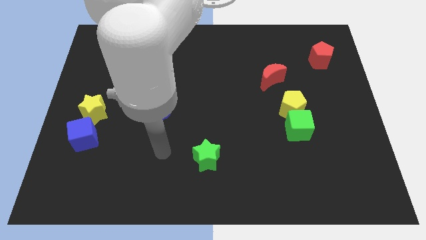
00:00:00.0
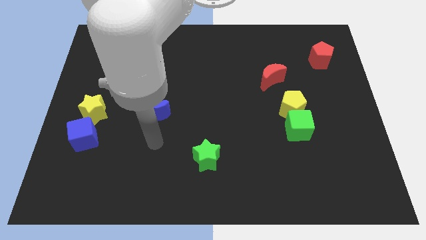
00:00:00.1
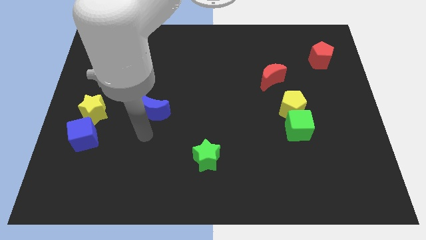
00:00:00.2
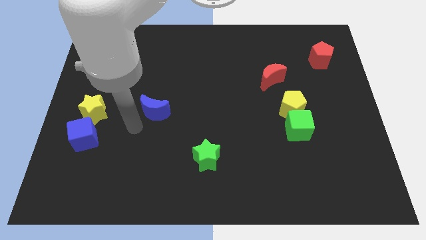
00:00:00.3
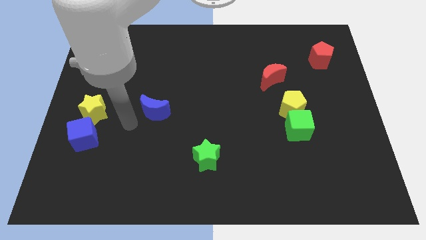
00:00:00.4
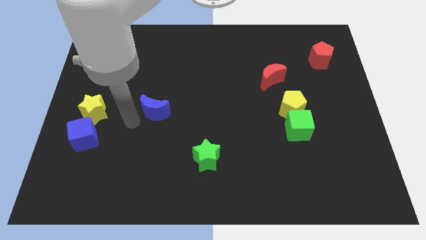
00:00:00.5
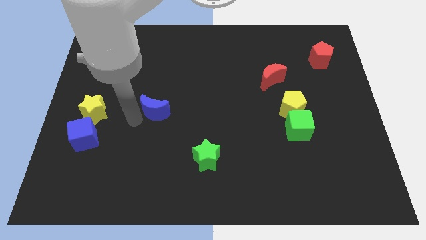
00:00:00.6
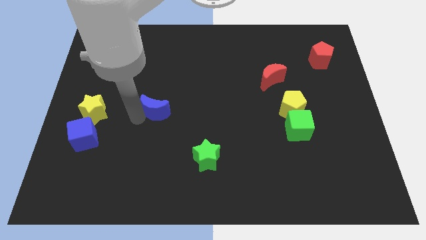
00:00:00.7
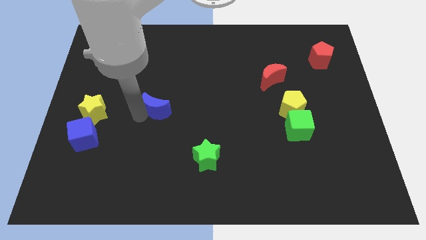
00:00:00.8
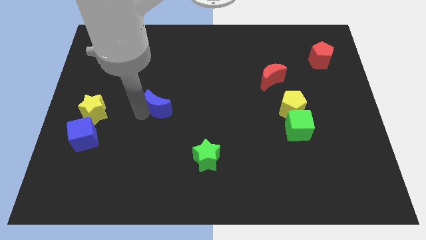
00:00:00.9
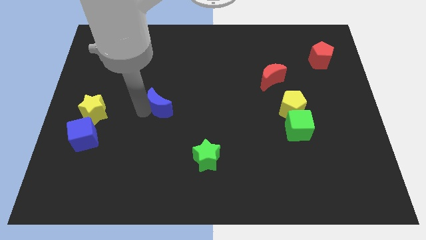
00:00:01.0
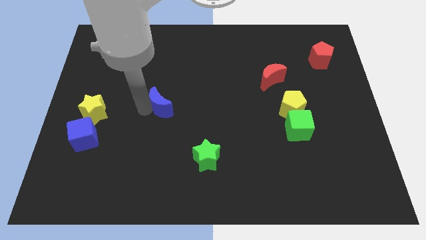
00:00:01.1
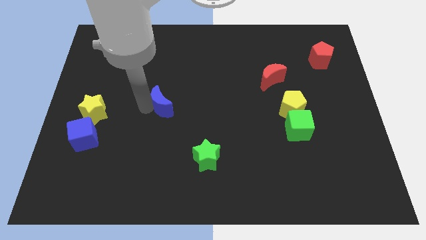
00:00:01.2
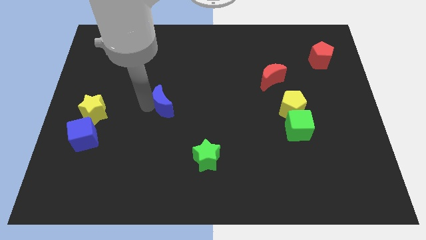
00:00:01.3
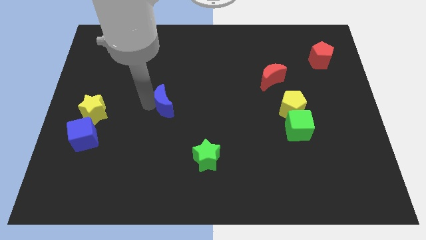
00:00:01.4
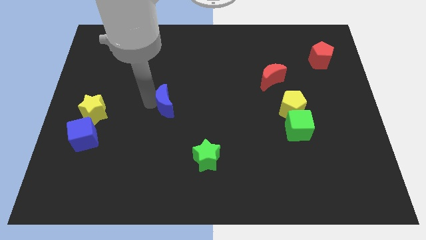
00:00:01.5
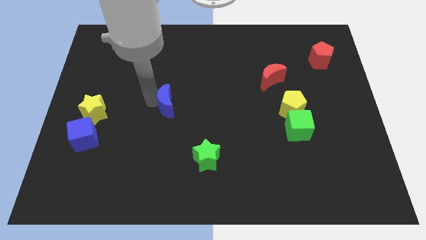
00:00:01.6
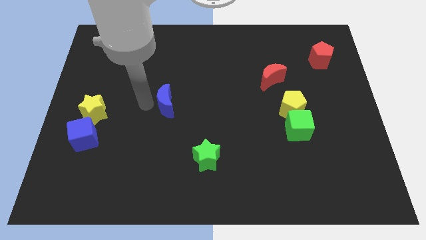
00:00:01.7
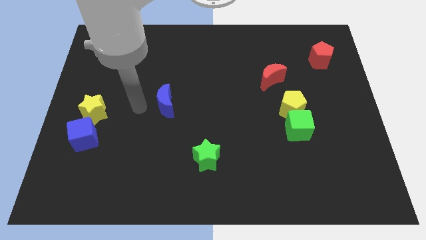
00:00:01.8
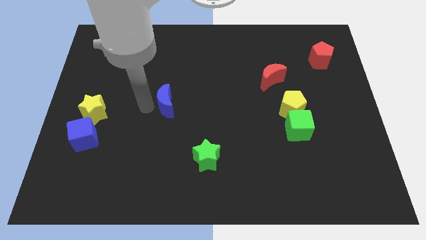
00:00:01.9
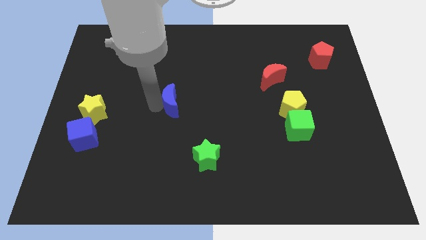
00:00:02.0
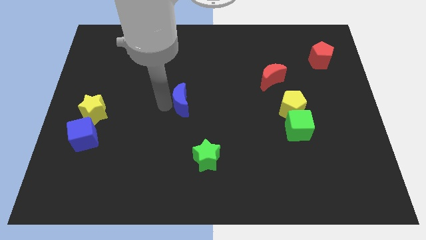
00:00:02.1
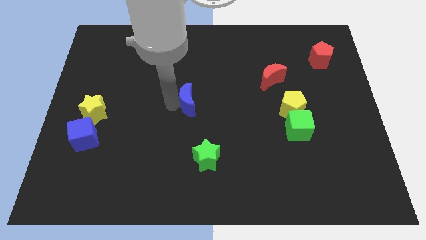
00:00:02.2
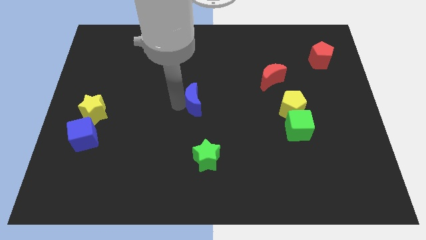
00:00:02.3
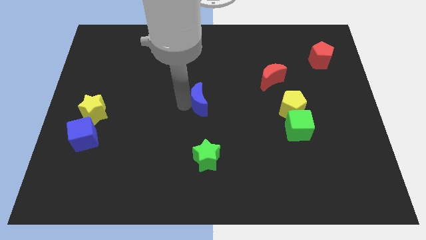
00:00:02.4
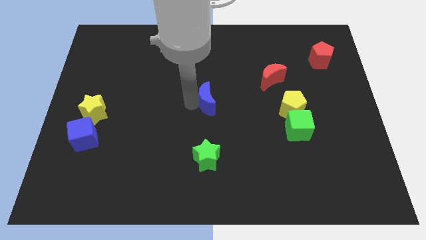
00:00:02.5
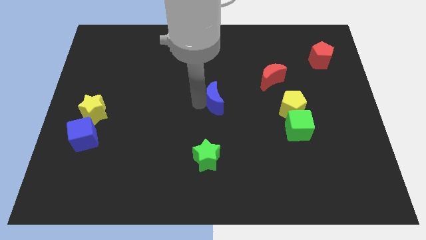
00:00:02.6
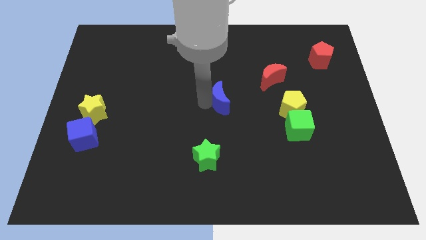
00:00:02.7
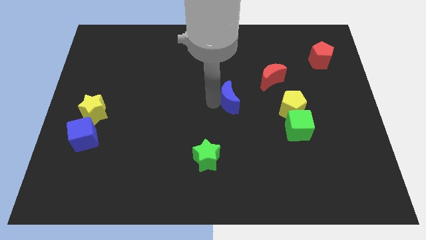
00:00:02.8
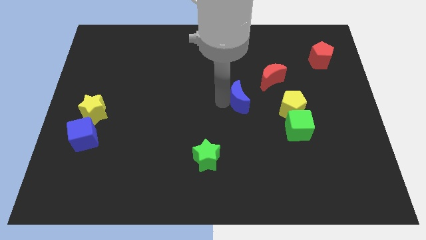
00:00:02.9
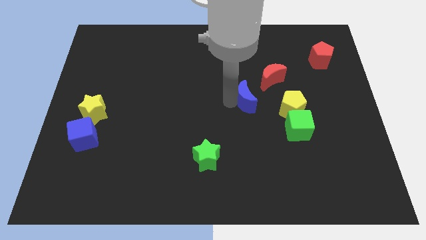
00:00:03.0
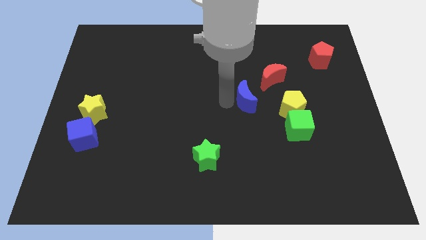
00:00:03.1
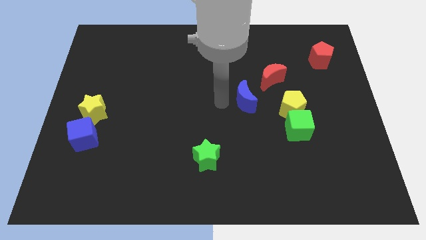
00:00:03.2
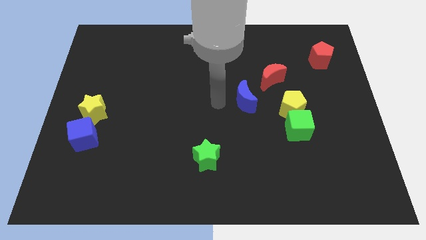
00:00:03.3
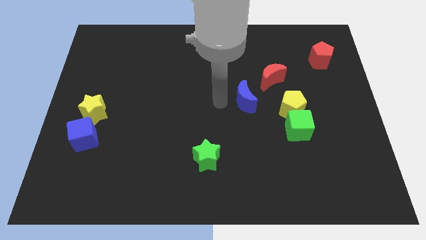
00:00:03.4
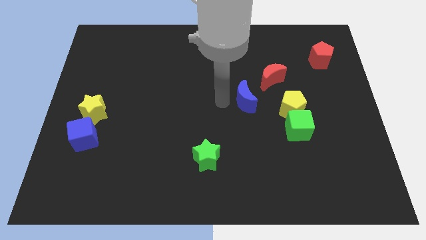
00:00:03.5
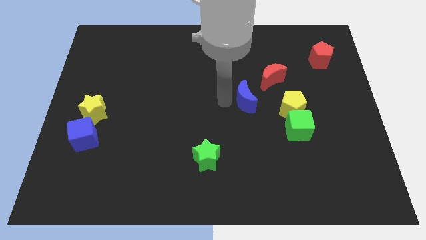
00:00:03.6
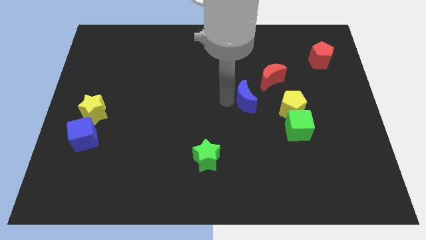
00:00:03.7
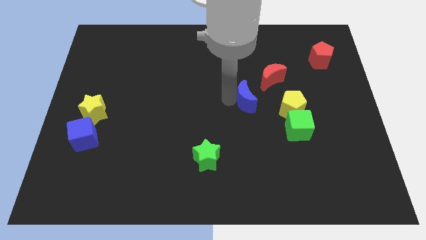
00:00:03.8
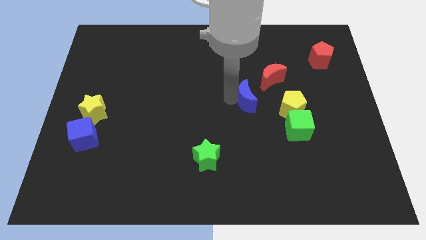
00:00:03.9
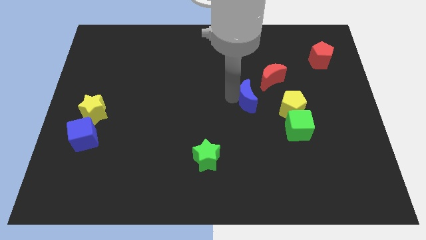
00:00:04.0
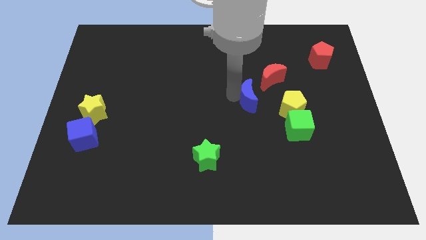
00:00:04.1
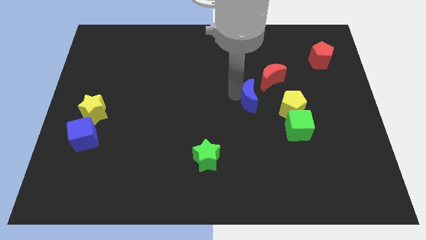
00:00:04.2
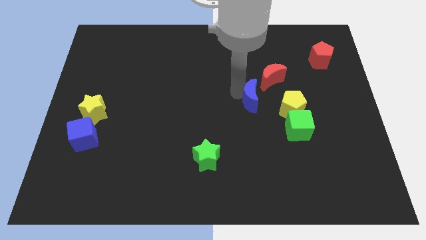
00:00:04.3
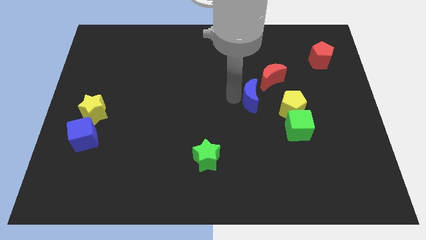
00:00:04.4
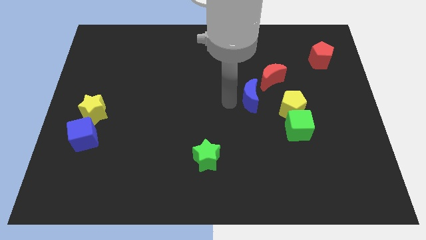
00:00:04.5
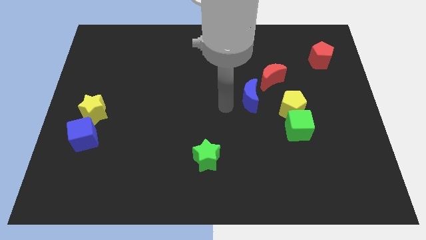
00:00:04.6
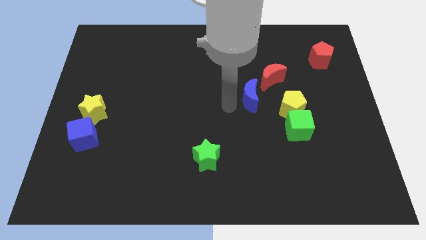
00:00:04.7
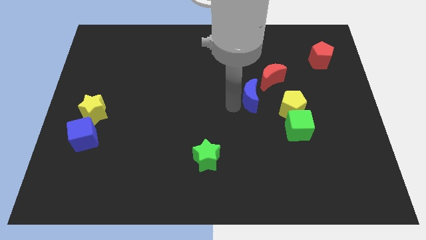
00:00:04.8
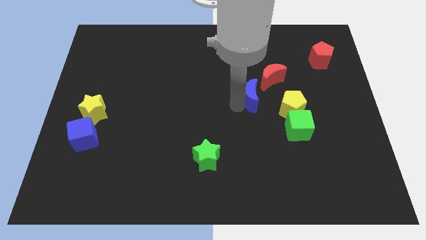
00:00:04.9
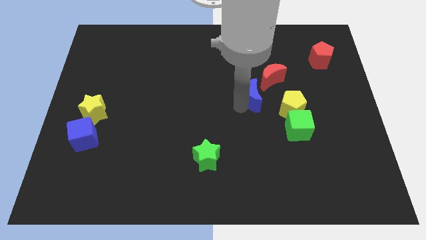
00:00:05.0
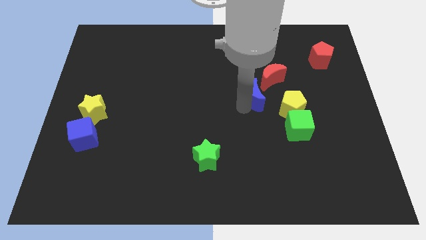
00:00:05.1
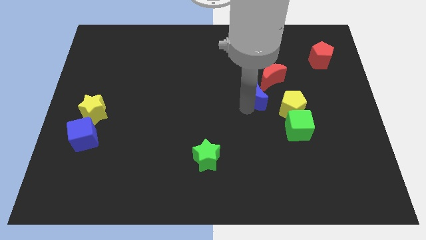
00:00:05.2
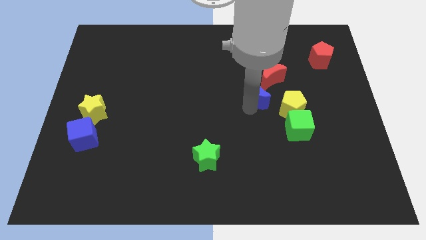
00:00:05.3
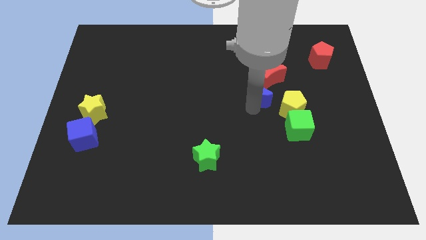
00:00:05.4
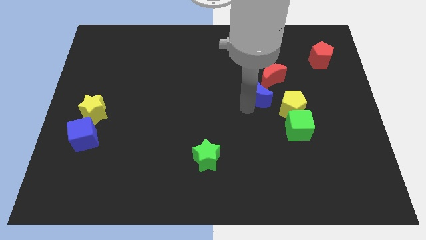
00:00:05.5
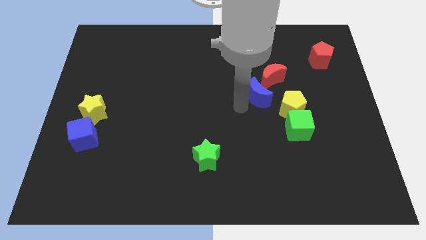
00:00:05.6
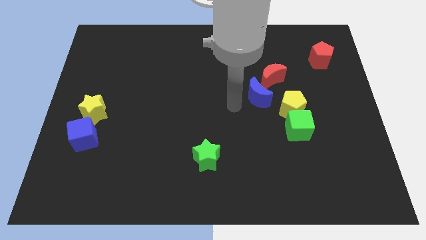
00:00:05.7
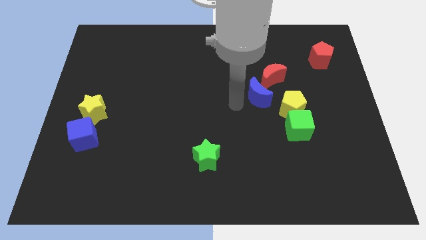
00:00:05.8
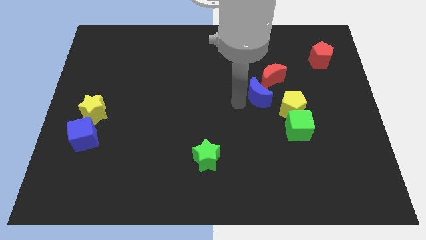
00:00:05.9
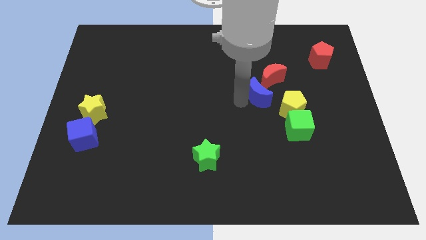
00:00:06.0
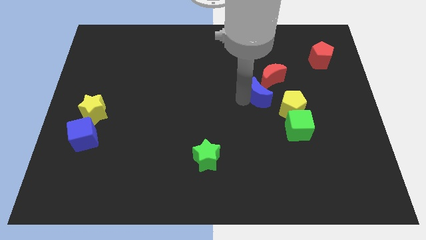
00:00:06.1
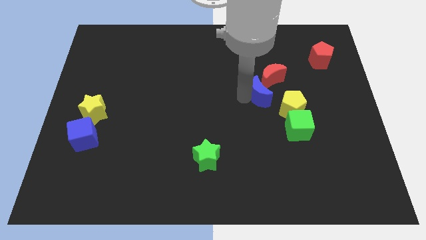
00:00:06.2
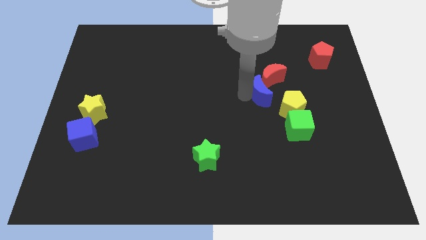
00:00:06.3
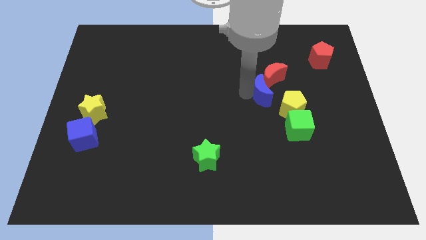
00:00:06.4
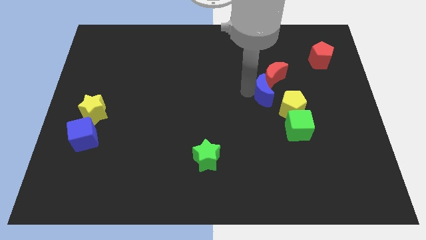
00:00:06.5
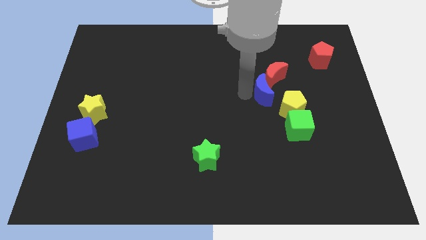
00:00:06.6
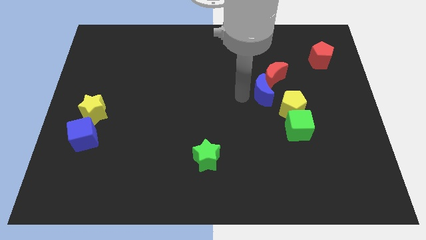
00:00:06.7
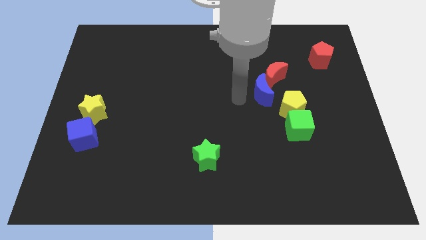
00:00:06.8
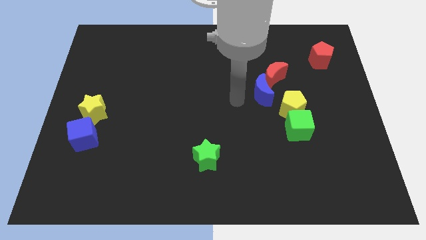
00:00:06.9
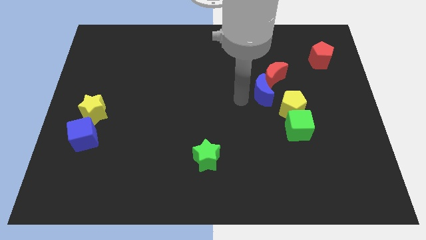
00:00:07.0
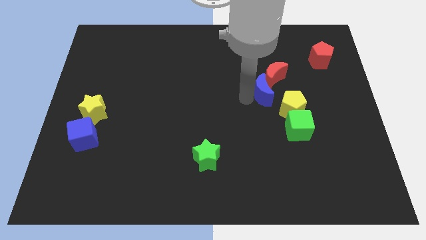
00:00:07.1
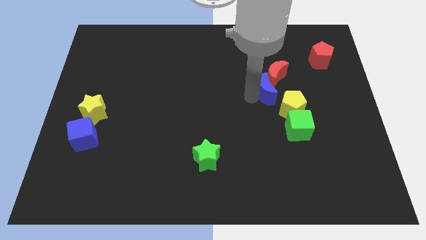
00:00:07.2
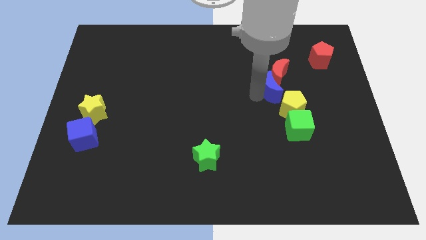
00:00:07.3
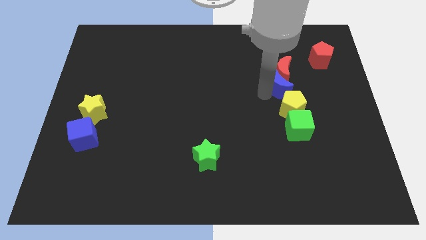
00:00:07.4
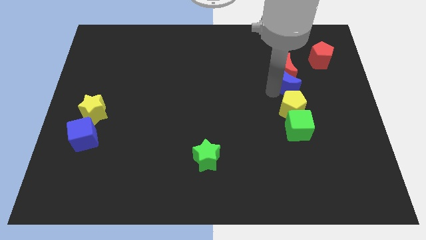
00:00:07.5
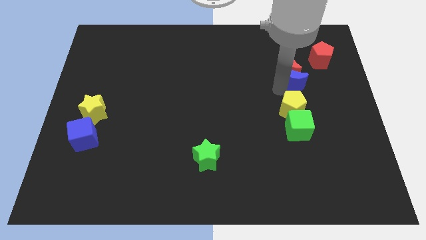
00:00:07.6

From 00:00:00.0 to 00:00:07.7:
push the blue moon diagonally down and to the left of the red pentagon
